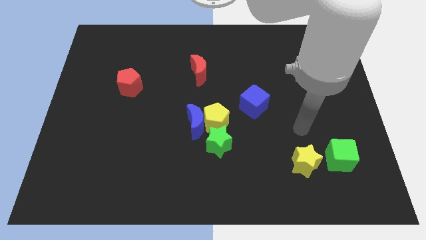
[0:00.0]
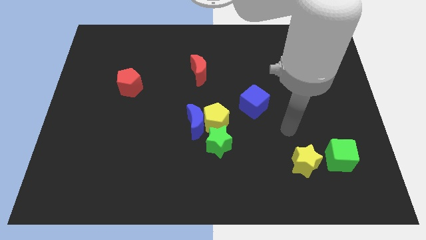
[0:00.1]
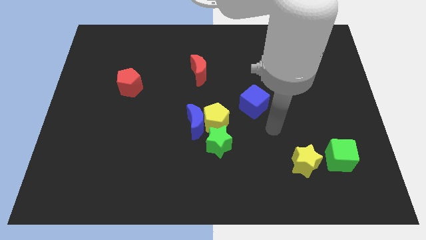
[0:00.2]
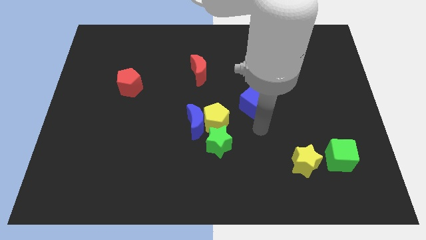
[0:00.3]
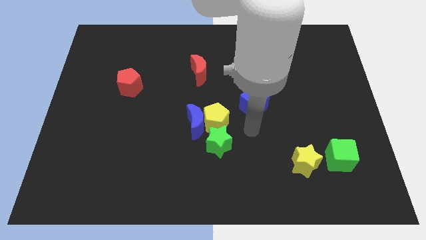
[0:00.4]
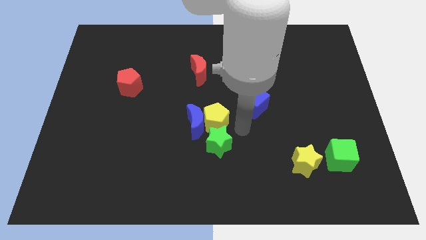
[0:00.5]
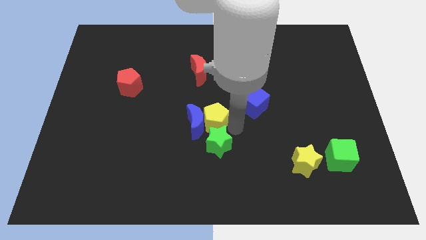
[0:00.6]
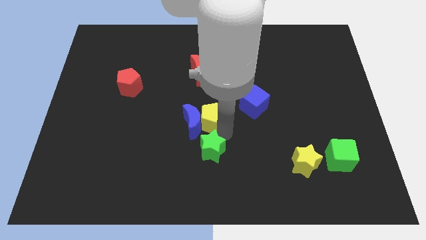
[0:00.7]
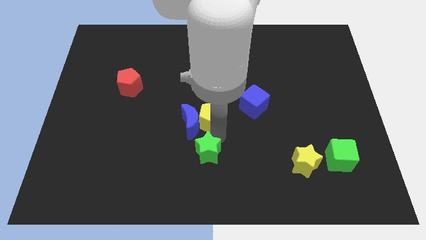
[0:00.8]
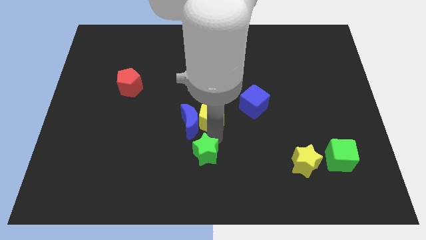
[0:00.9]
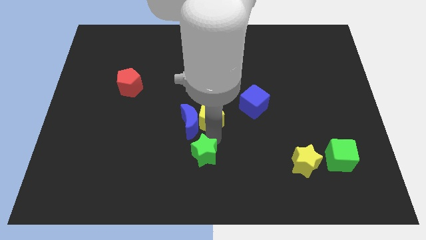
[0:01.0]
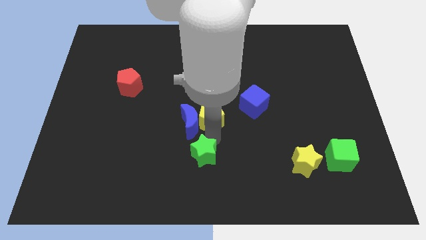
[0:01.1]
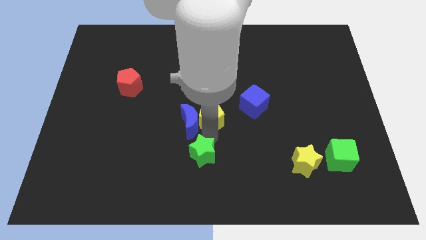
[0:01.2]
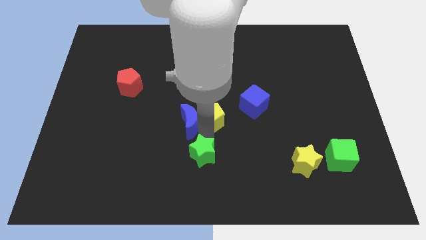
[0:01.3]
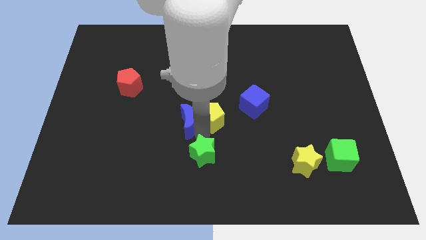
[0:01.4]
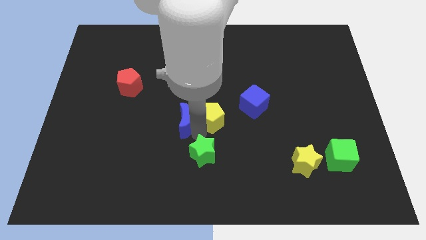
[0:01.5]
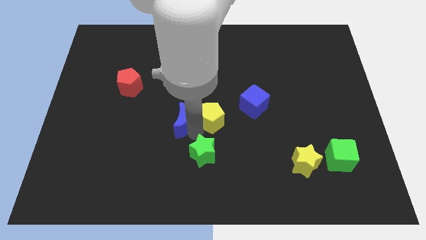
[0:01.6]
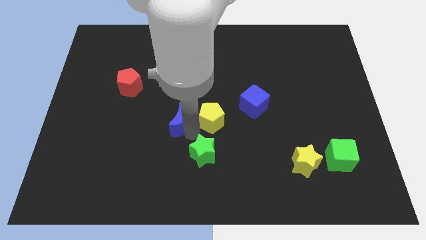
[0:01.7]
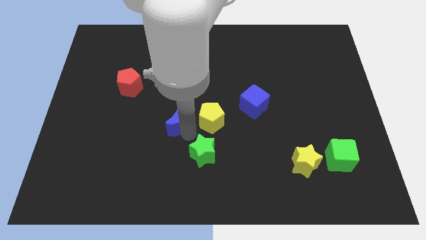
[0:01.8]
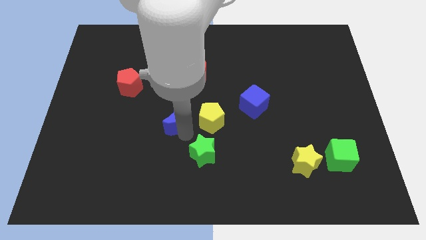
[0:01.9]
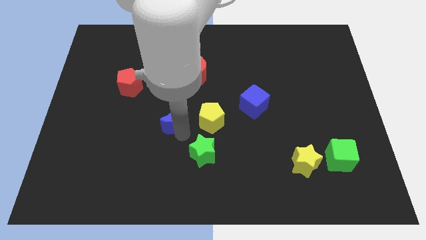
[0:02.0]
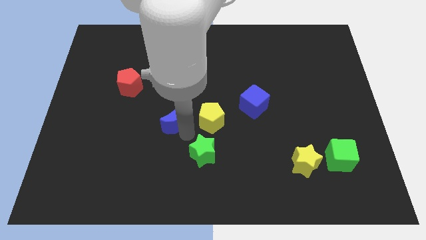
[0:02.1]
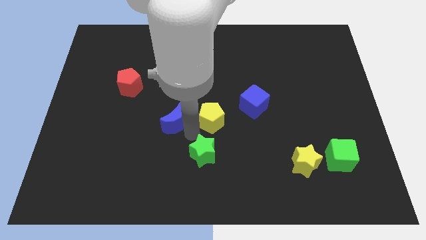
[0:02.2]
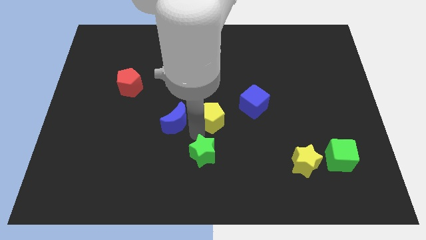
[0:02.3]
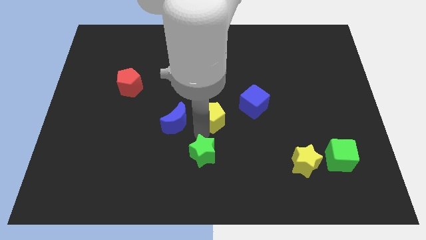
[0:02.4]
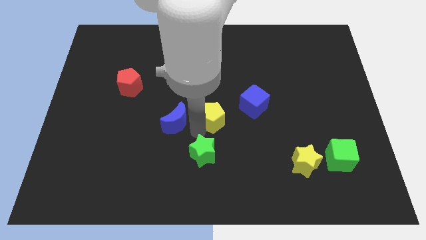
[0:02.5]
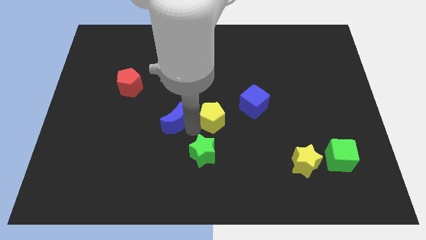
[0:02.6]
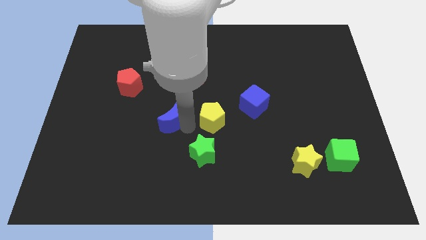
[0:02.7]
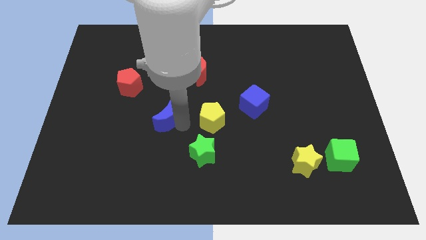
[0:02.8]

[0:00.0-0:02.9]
move the blue moon away from the yellow pentagon and green star

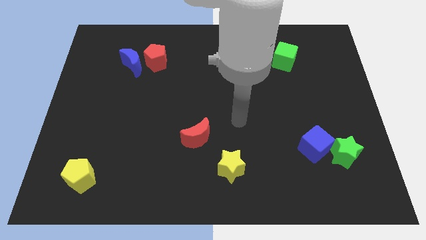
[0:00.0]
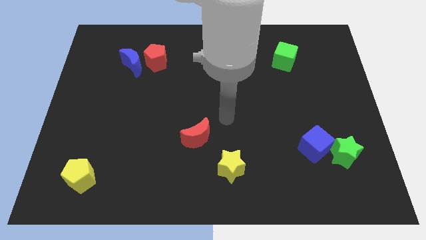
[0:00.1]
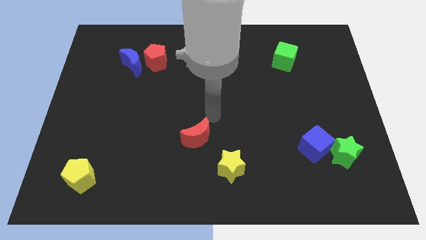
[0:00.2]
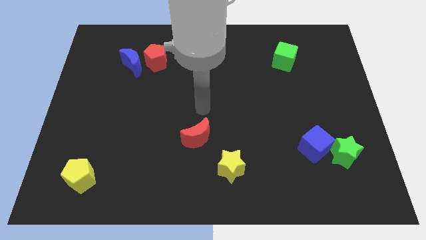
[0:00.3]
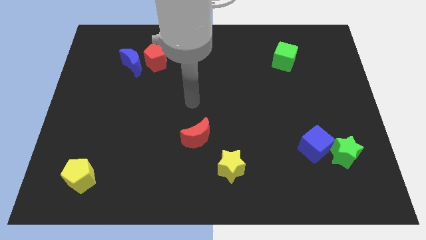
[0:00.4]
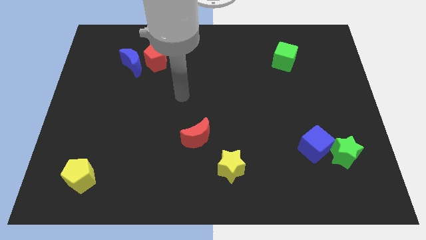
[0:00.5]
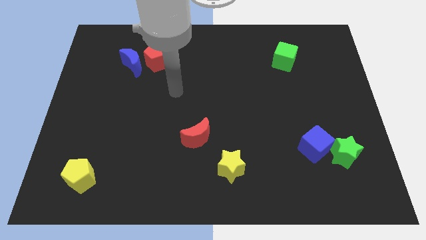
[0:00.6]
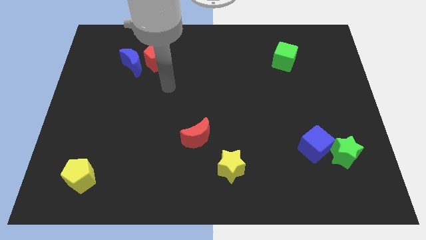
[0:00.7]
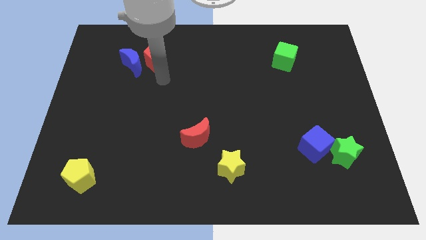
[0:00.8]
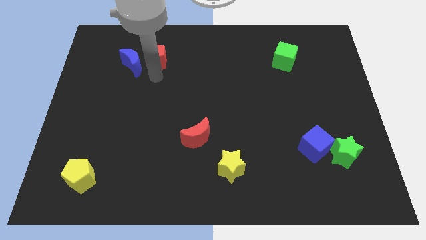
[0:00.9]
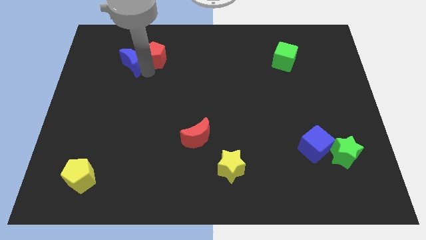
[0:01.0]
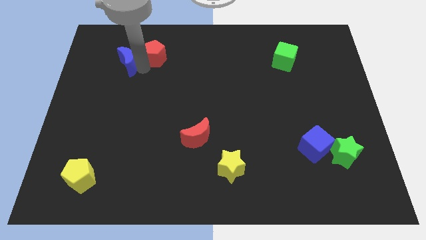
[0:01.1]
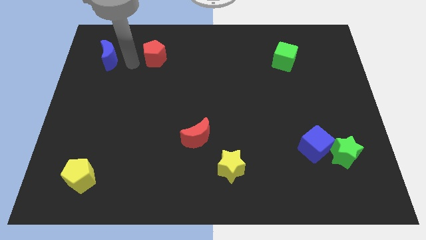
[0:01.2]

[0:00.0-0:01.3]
separate the red pentagon from the blue moon

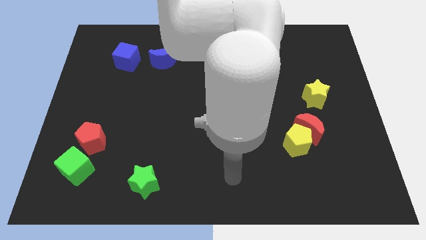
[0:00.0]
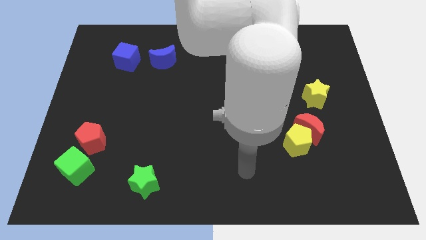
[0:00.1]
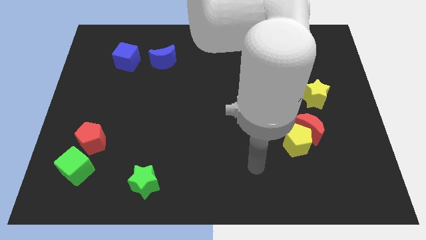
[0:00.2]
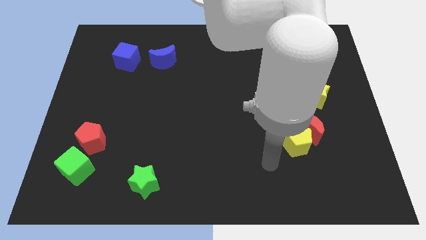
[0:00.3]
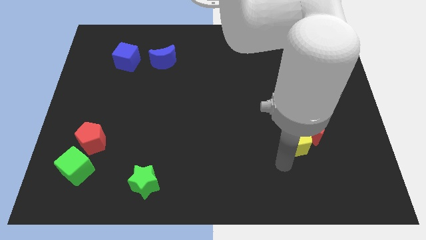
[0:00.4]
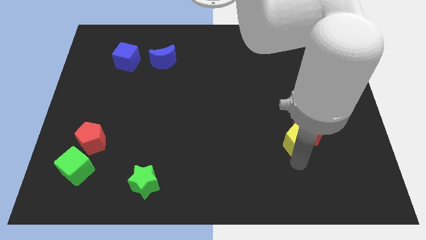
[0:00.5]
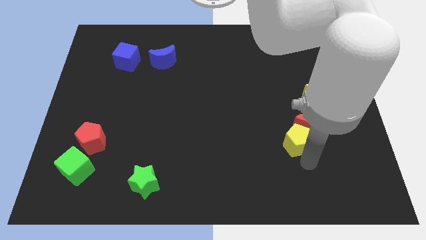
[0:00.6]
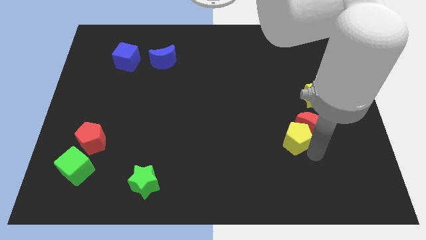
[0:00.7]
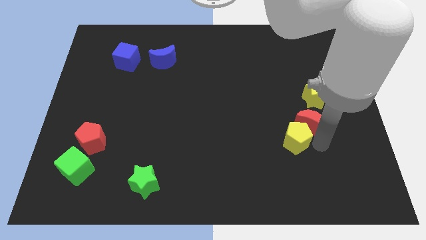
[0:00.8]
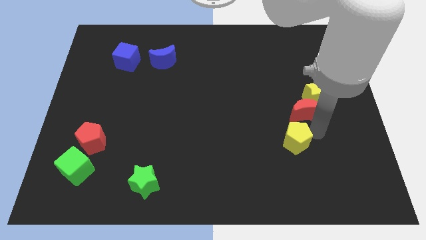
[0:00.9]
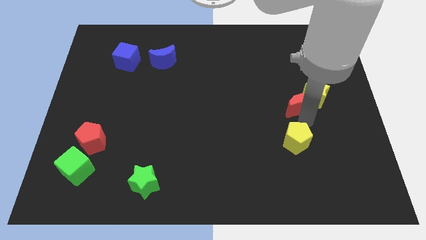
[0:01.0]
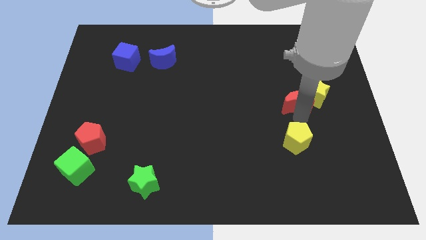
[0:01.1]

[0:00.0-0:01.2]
separate the yellow pentagon from the red moon

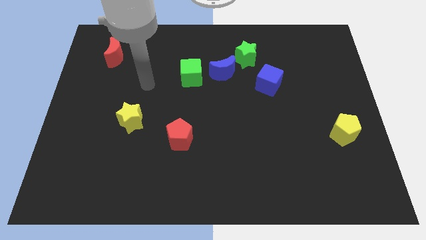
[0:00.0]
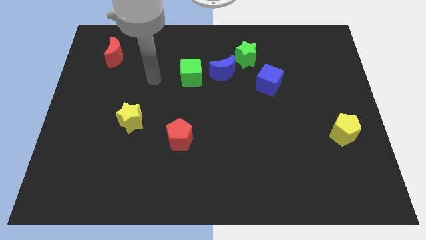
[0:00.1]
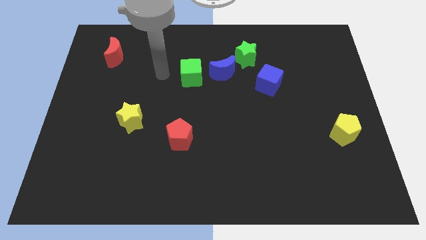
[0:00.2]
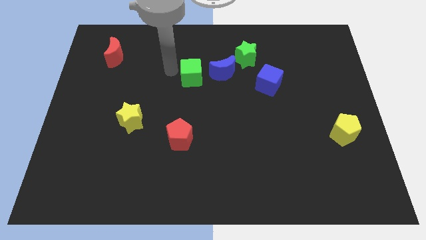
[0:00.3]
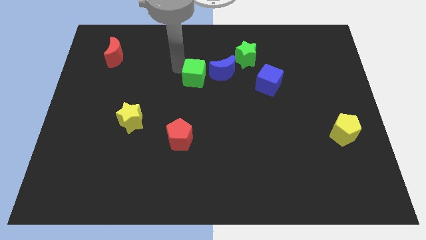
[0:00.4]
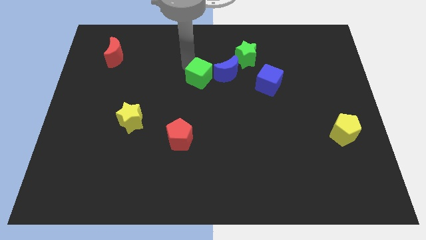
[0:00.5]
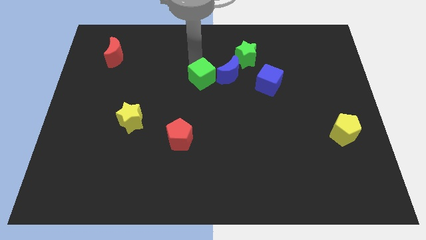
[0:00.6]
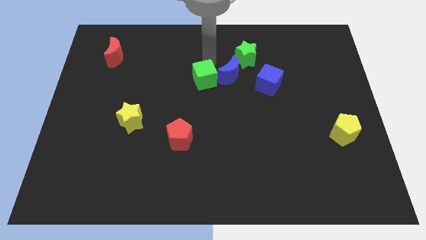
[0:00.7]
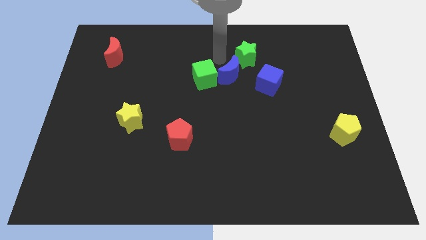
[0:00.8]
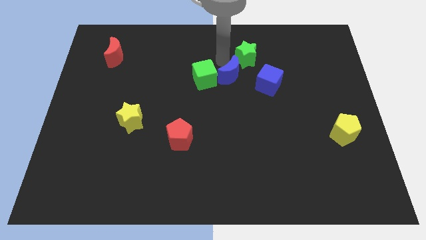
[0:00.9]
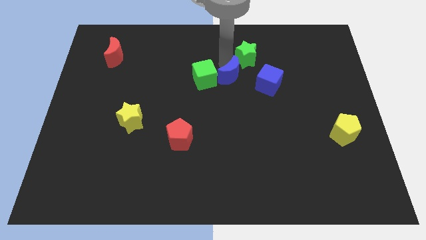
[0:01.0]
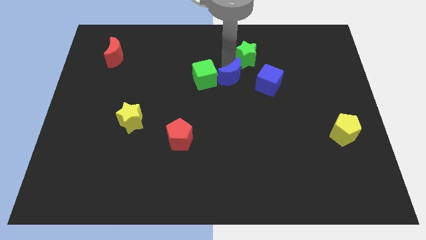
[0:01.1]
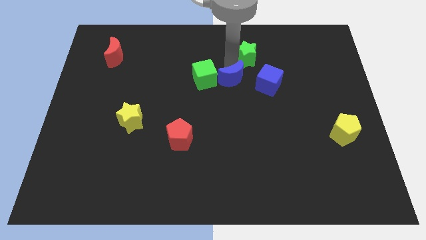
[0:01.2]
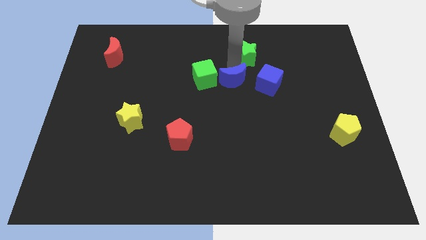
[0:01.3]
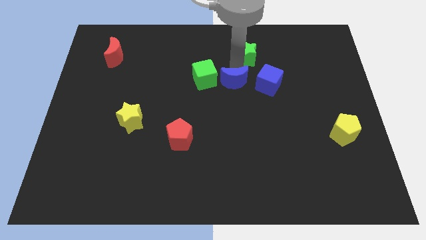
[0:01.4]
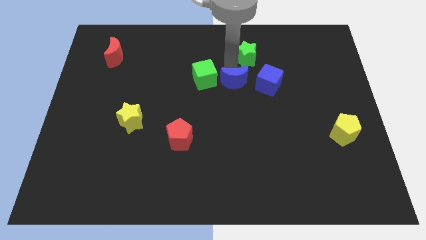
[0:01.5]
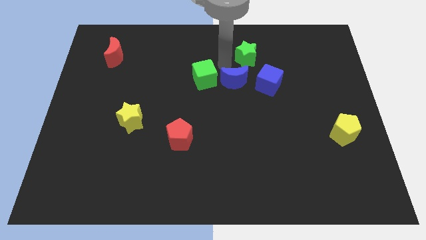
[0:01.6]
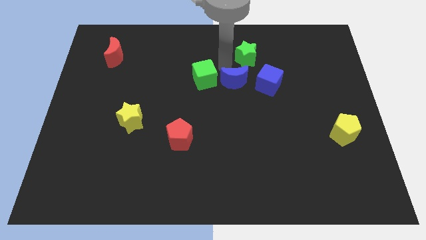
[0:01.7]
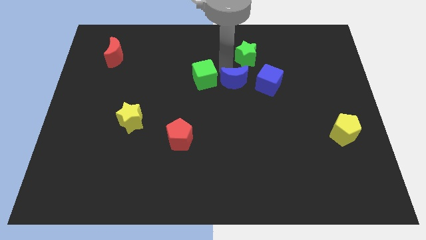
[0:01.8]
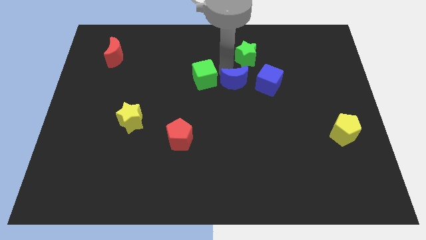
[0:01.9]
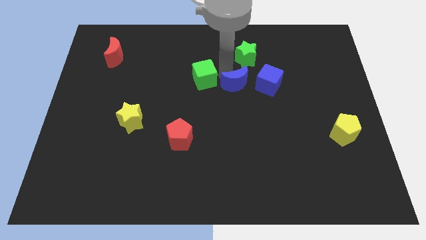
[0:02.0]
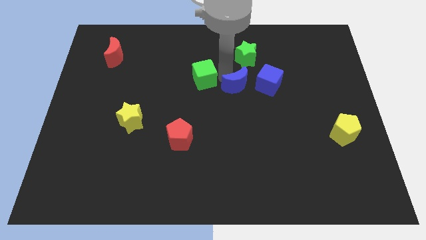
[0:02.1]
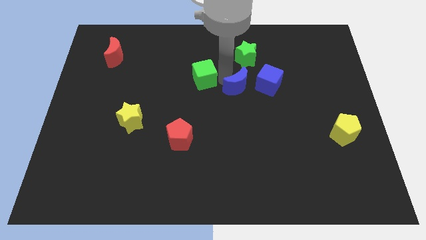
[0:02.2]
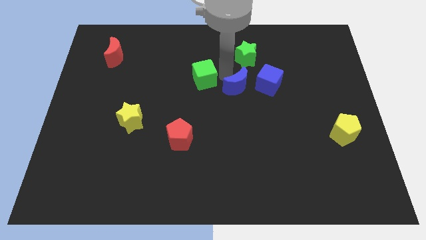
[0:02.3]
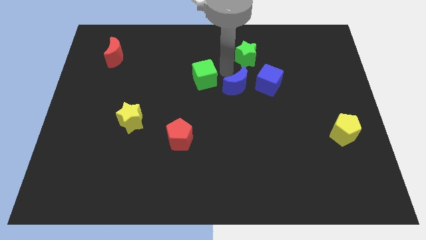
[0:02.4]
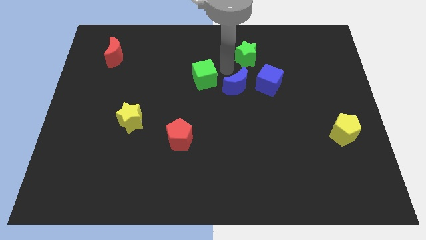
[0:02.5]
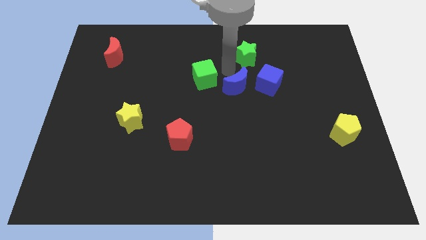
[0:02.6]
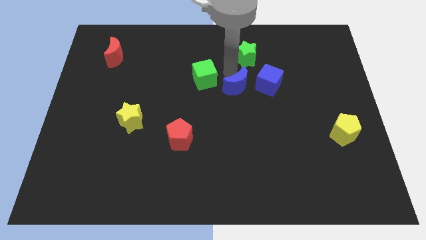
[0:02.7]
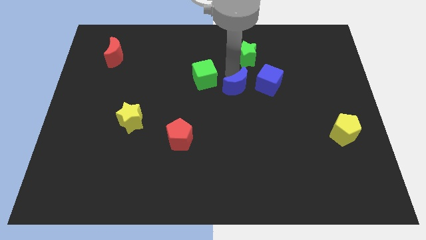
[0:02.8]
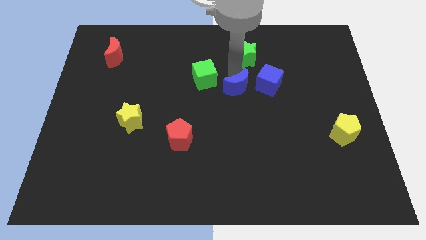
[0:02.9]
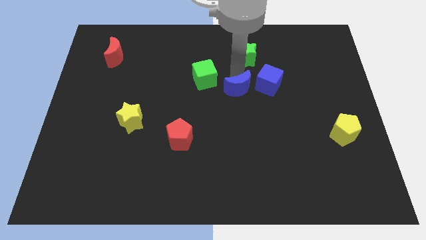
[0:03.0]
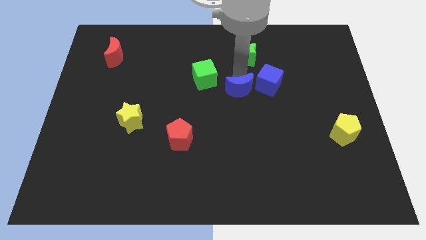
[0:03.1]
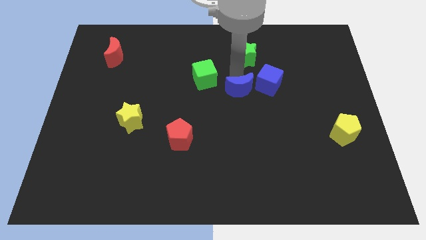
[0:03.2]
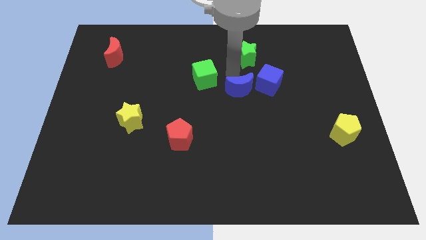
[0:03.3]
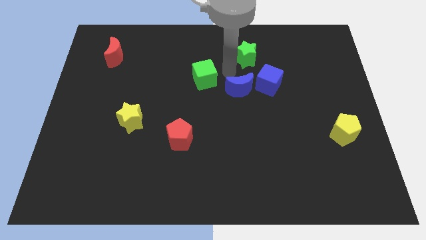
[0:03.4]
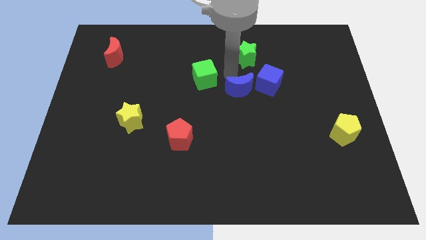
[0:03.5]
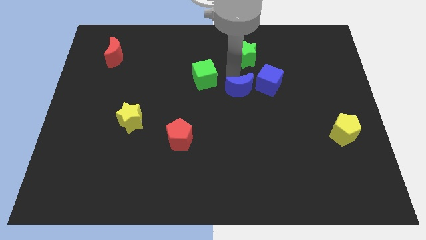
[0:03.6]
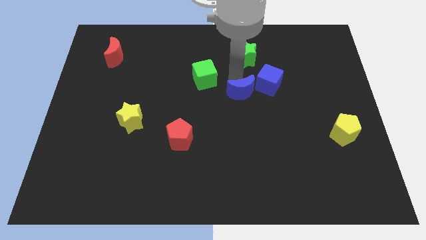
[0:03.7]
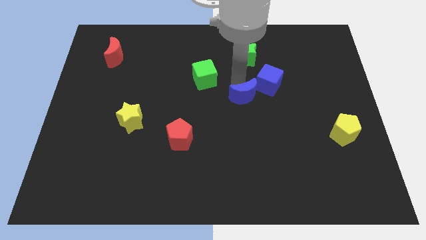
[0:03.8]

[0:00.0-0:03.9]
separate the blue moon from the green star and green cube
